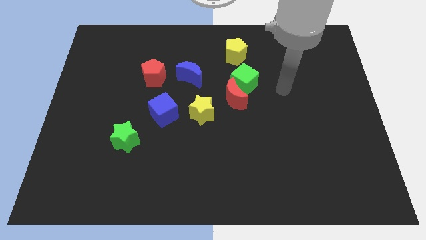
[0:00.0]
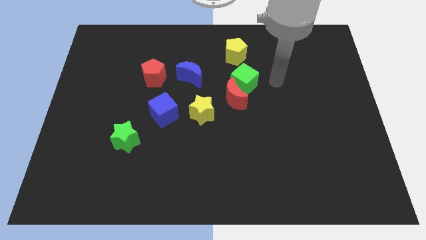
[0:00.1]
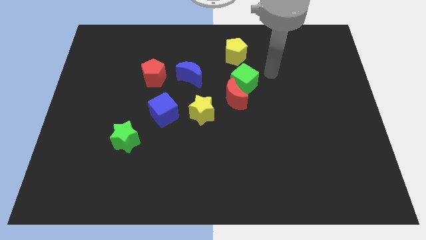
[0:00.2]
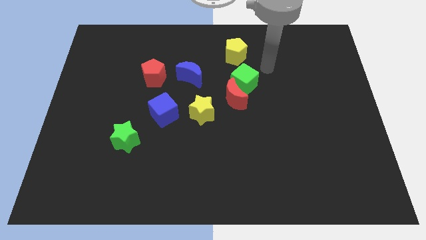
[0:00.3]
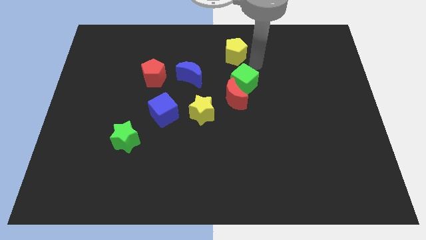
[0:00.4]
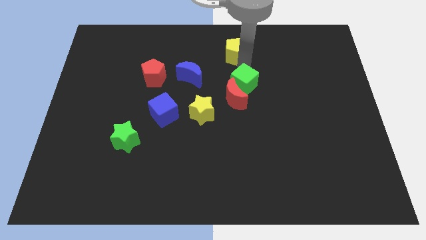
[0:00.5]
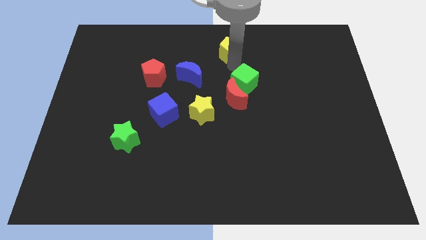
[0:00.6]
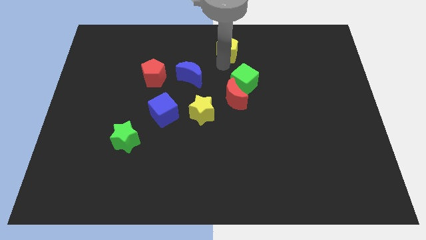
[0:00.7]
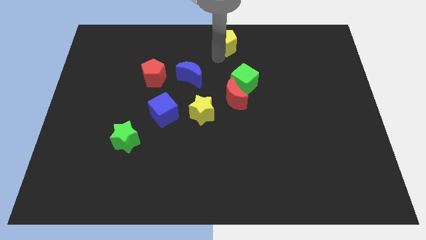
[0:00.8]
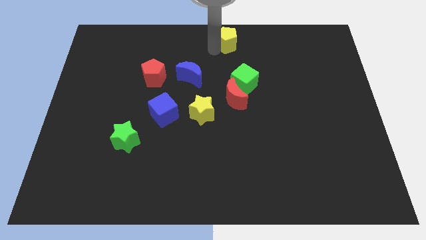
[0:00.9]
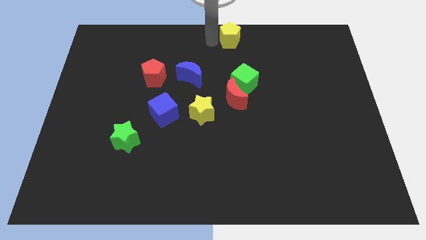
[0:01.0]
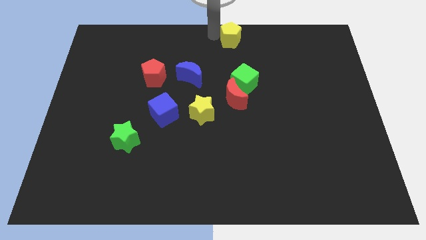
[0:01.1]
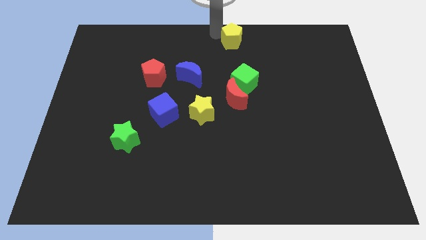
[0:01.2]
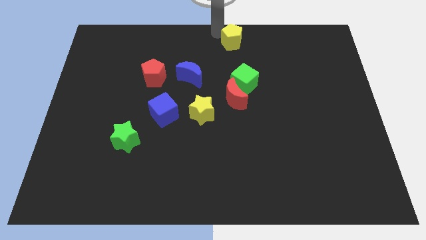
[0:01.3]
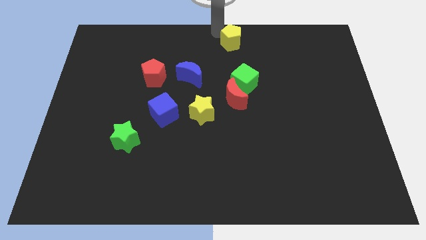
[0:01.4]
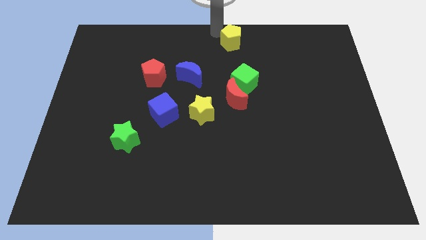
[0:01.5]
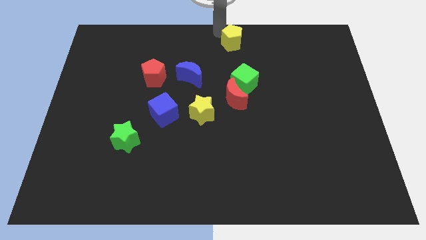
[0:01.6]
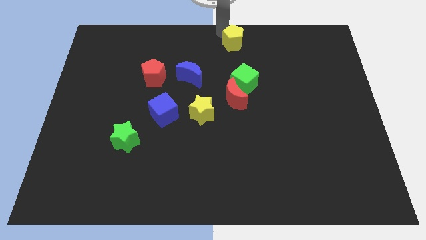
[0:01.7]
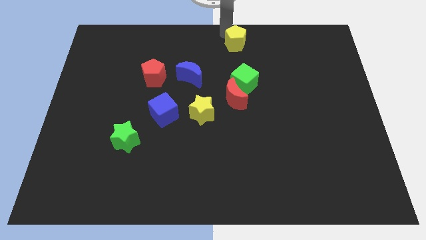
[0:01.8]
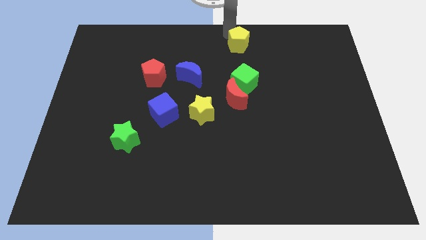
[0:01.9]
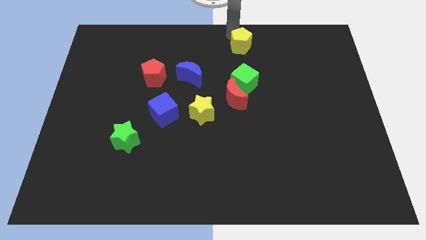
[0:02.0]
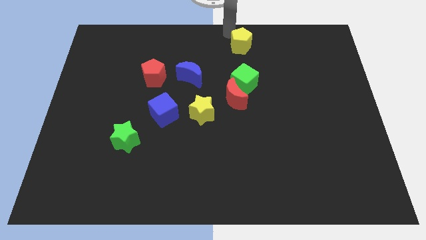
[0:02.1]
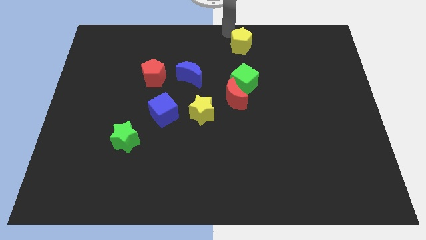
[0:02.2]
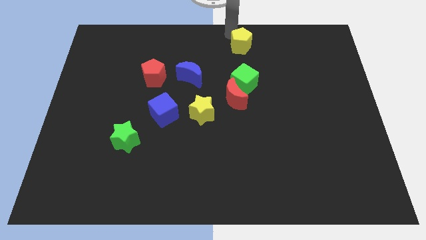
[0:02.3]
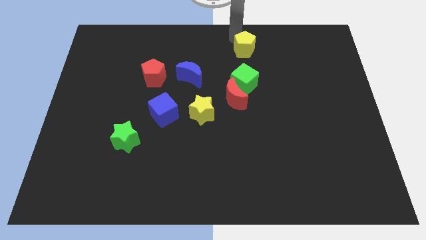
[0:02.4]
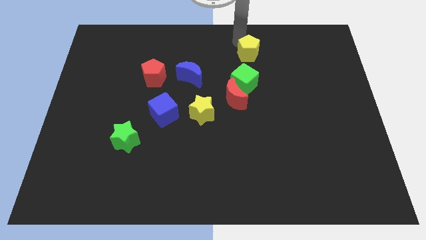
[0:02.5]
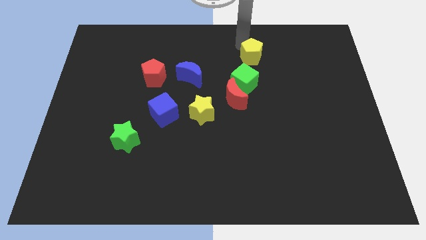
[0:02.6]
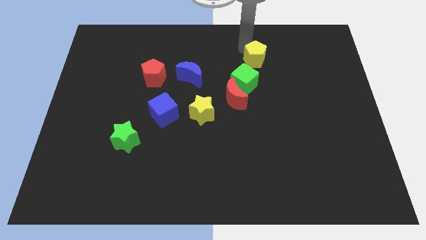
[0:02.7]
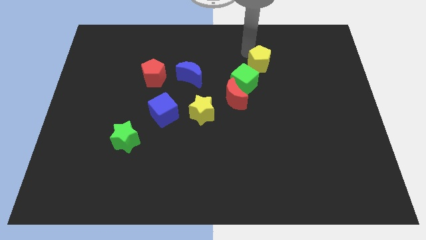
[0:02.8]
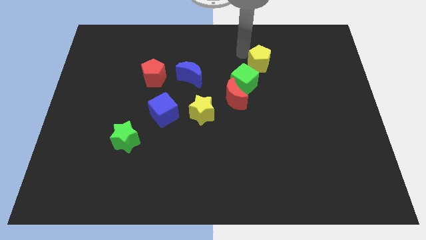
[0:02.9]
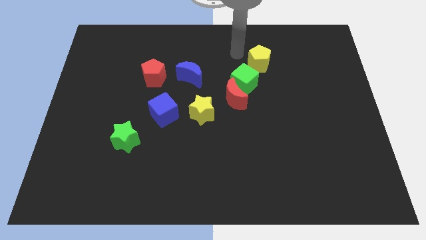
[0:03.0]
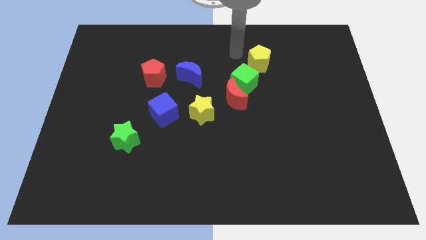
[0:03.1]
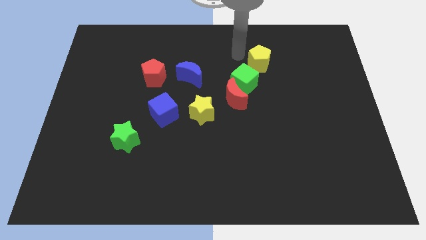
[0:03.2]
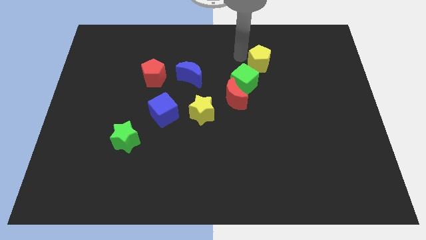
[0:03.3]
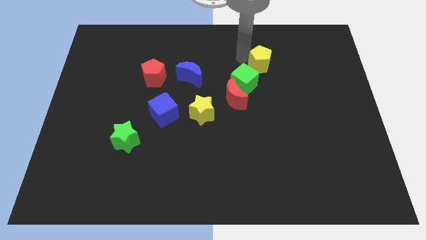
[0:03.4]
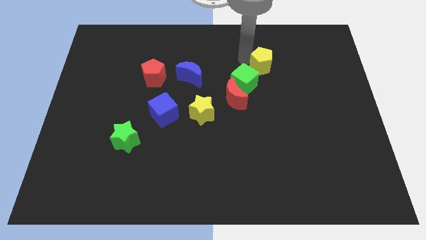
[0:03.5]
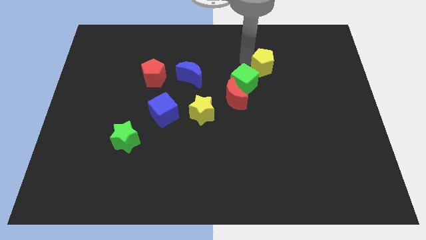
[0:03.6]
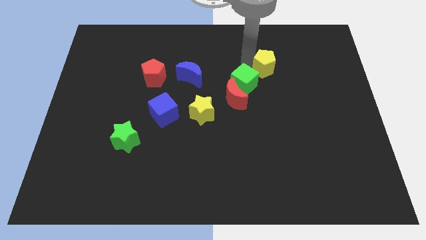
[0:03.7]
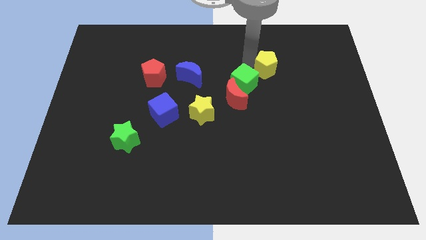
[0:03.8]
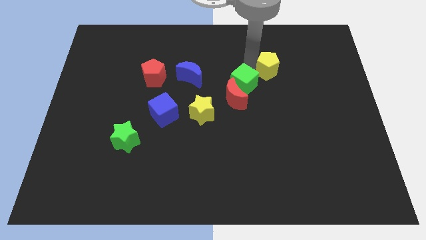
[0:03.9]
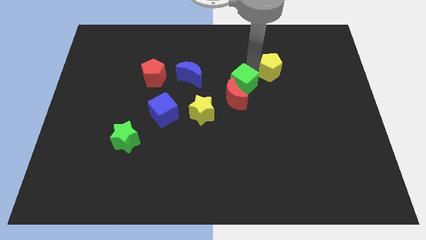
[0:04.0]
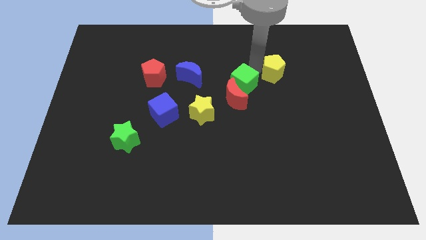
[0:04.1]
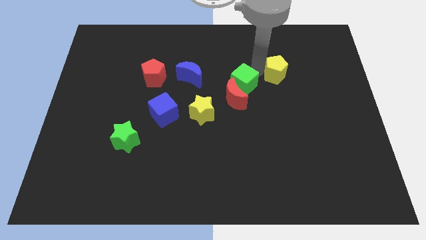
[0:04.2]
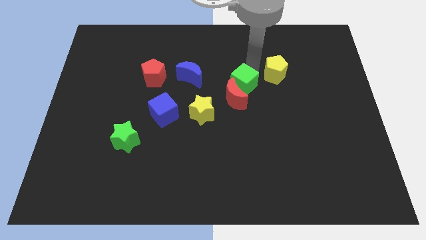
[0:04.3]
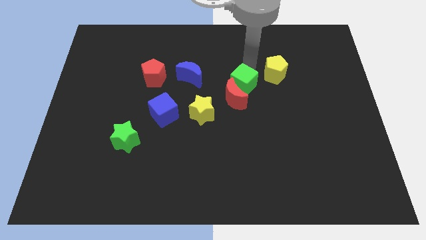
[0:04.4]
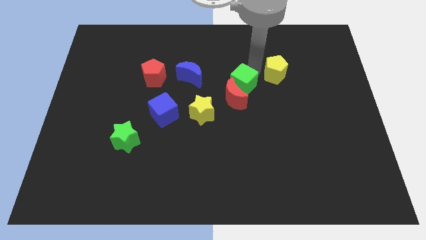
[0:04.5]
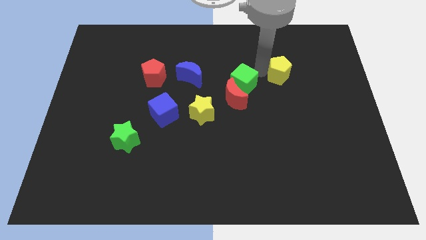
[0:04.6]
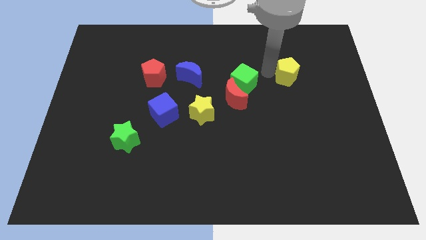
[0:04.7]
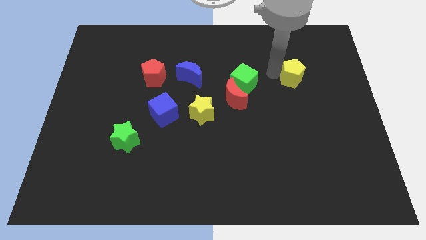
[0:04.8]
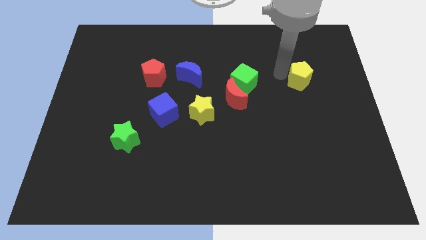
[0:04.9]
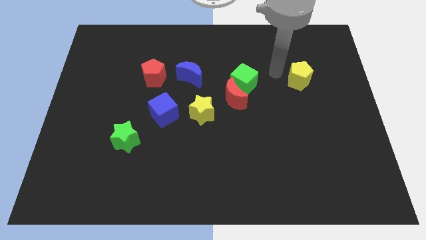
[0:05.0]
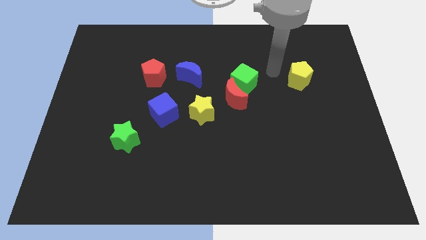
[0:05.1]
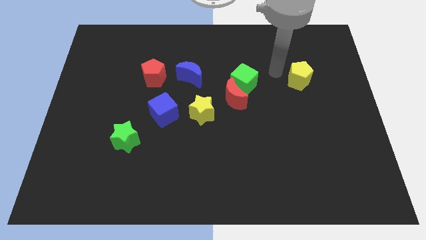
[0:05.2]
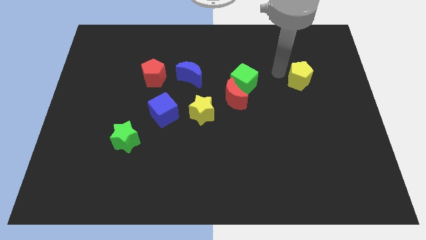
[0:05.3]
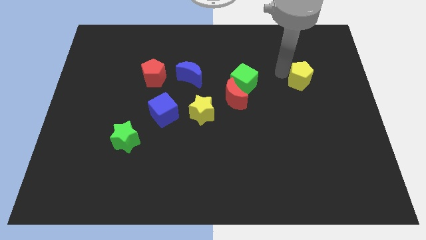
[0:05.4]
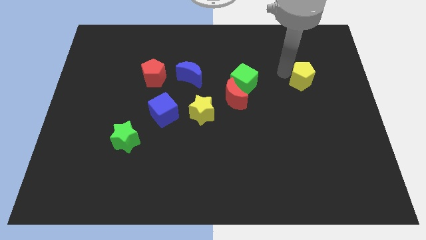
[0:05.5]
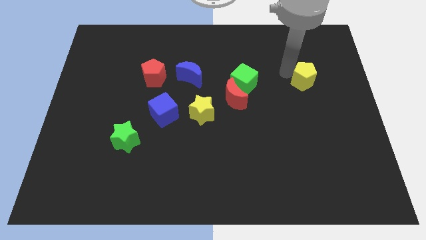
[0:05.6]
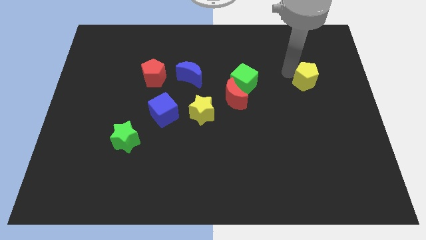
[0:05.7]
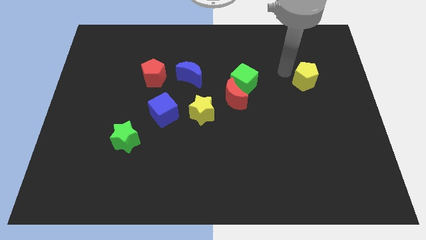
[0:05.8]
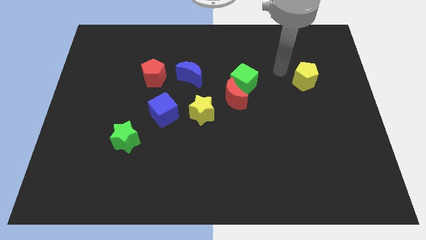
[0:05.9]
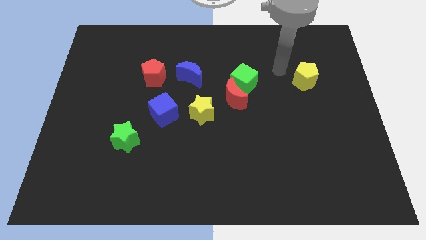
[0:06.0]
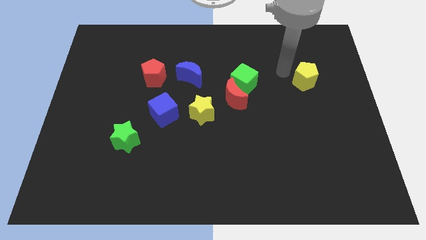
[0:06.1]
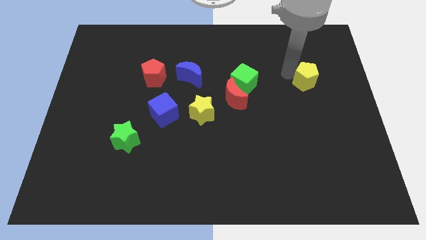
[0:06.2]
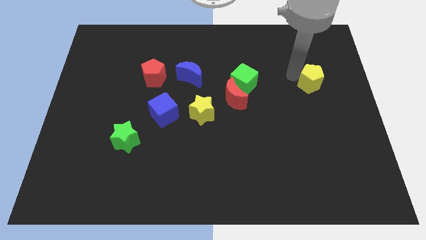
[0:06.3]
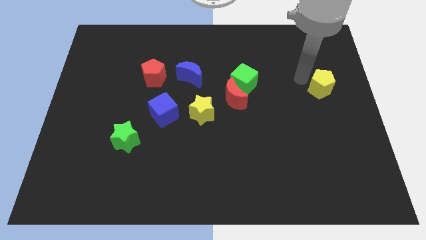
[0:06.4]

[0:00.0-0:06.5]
move the yellow pentagon to the right side
